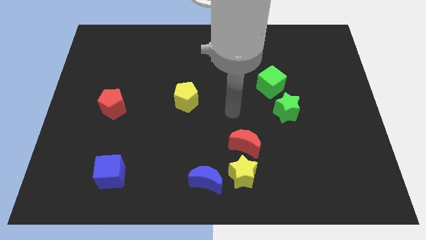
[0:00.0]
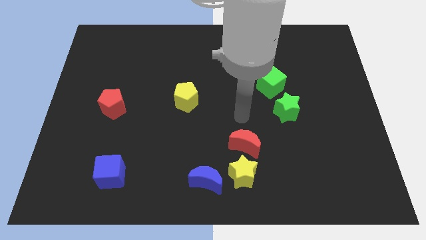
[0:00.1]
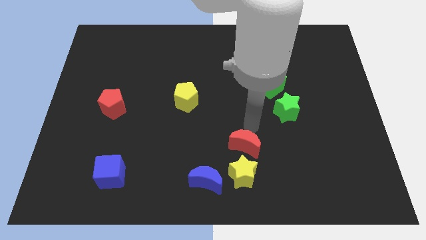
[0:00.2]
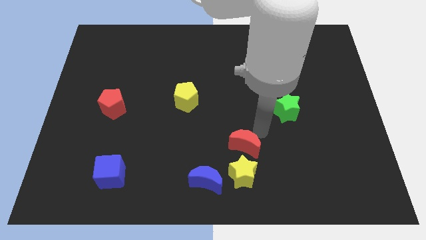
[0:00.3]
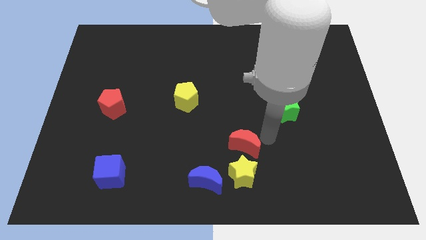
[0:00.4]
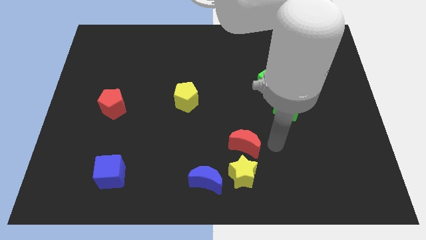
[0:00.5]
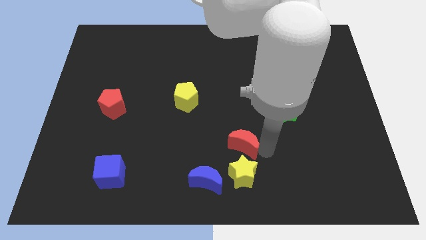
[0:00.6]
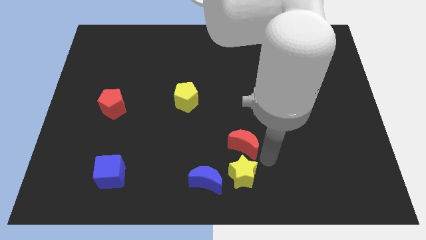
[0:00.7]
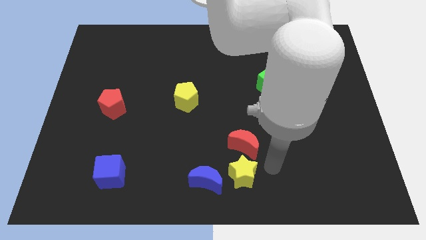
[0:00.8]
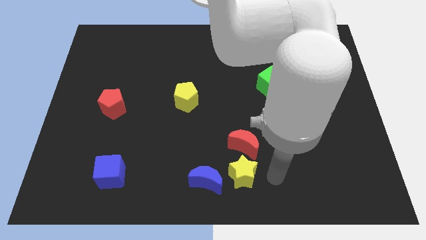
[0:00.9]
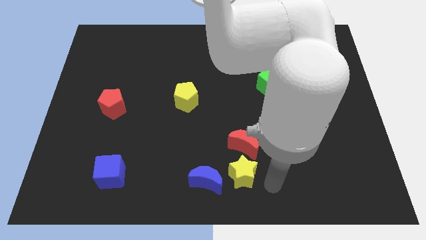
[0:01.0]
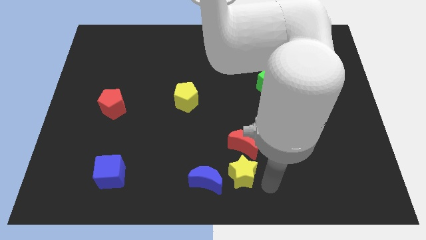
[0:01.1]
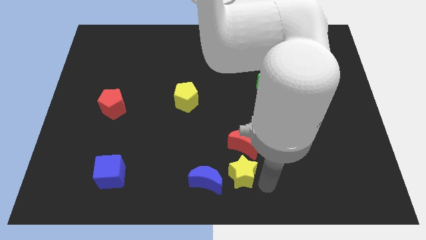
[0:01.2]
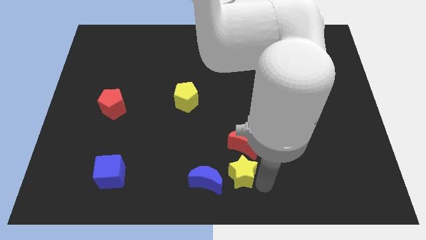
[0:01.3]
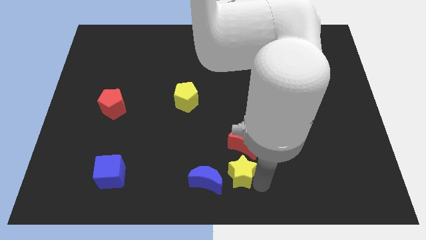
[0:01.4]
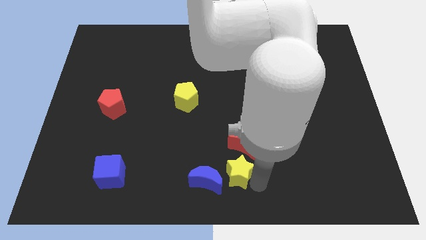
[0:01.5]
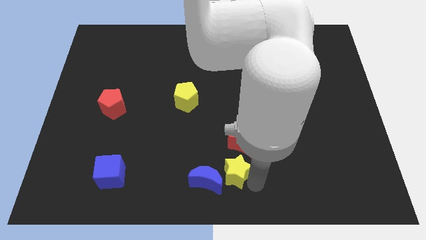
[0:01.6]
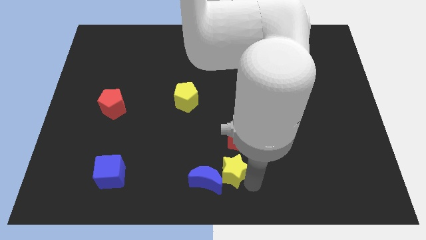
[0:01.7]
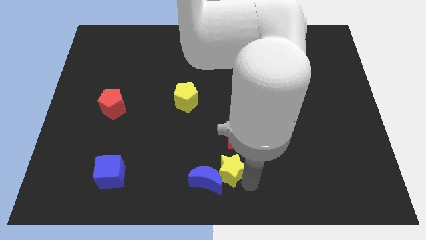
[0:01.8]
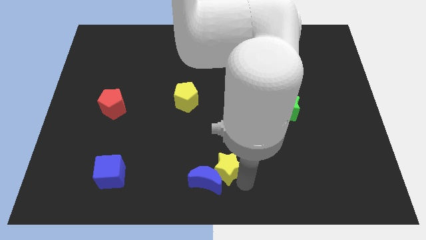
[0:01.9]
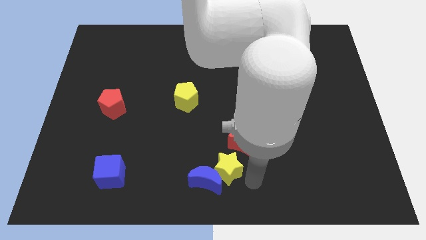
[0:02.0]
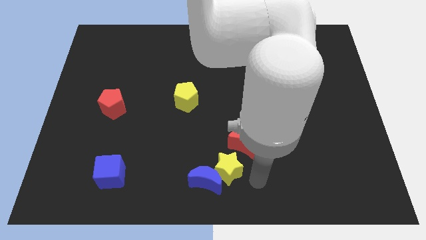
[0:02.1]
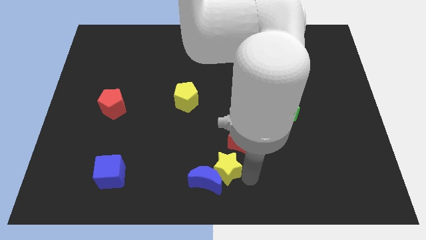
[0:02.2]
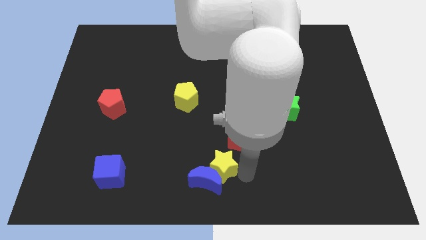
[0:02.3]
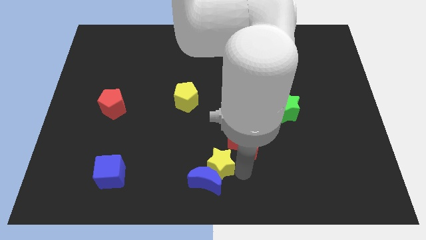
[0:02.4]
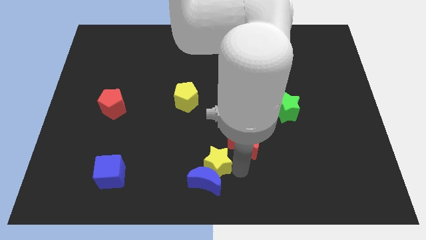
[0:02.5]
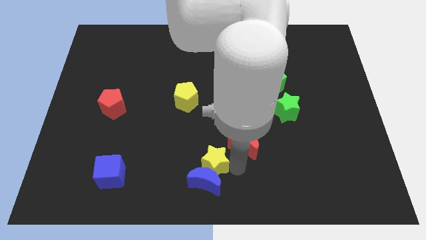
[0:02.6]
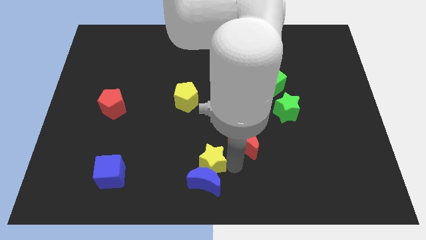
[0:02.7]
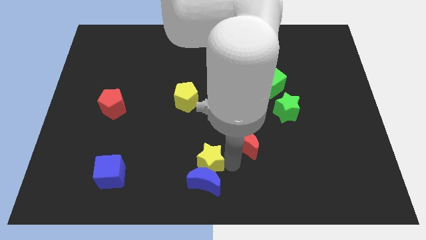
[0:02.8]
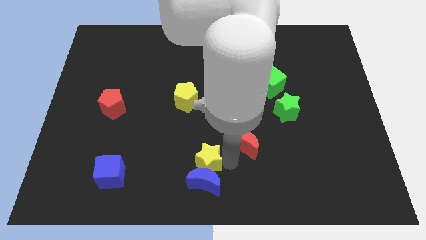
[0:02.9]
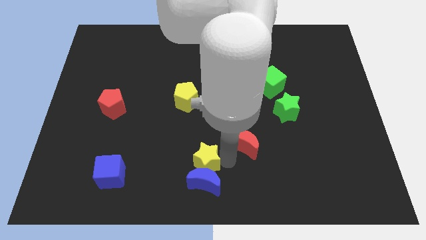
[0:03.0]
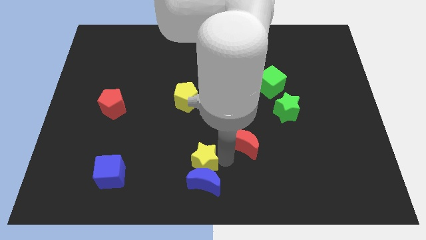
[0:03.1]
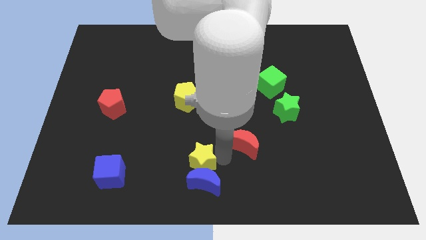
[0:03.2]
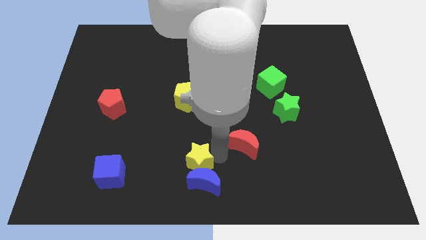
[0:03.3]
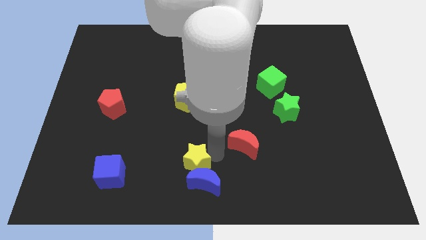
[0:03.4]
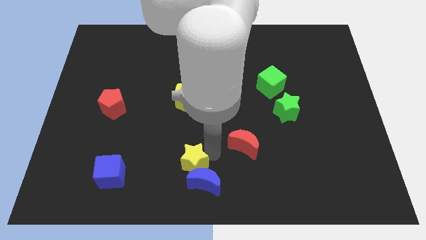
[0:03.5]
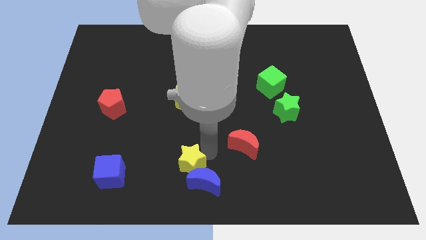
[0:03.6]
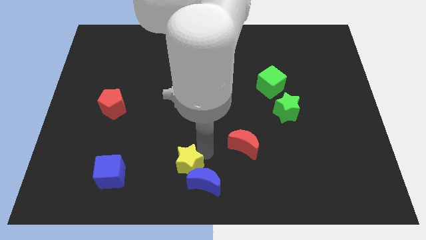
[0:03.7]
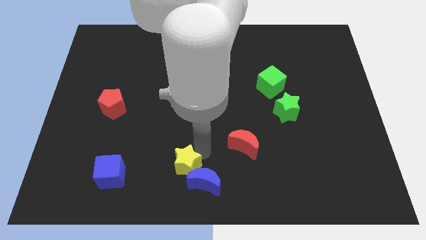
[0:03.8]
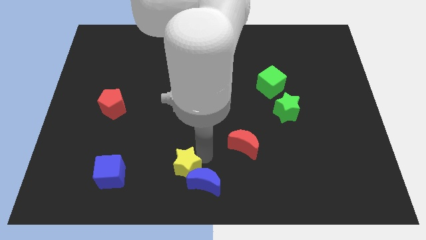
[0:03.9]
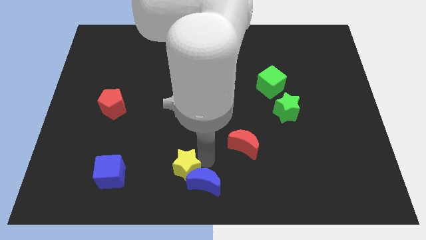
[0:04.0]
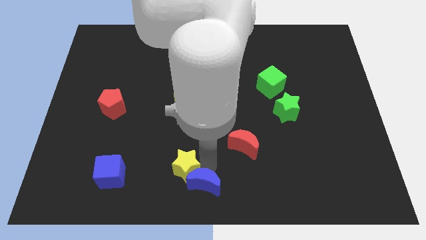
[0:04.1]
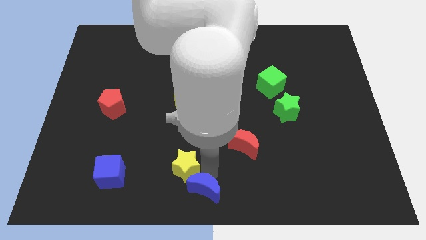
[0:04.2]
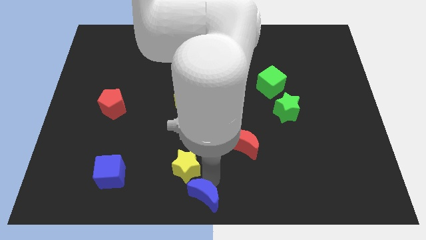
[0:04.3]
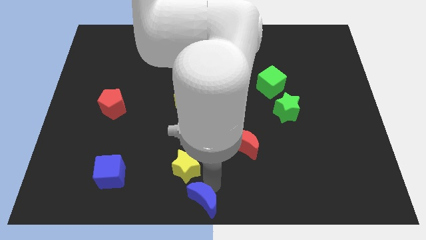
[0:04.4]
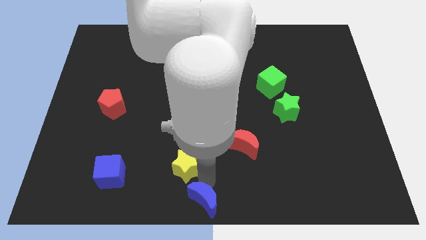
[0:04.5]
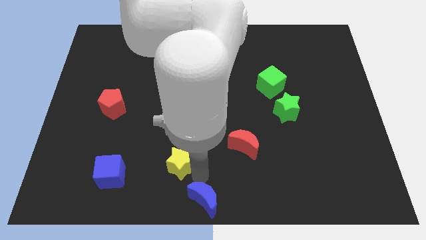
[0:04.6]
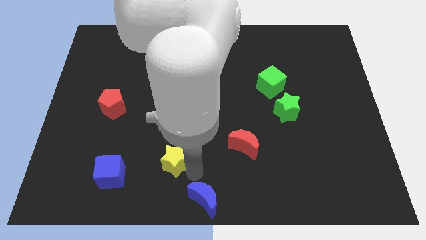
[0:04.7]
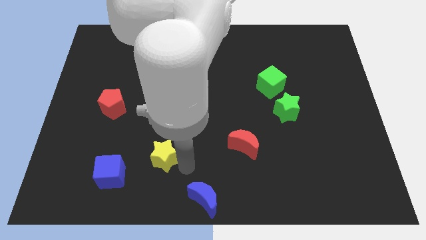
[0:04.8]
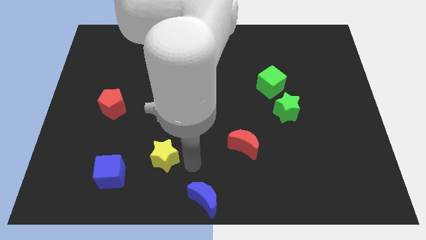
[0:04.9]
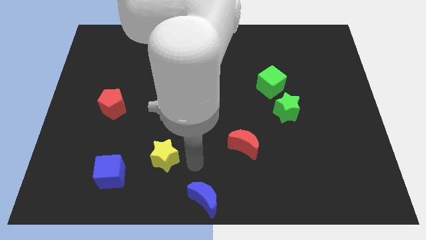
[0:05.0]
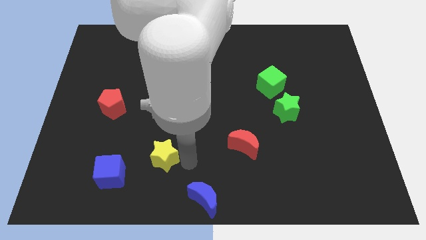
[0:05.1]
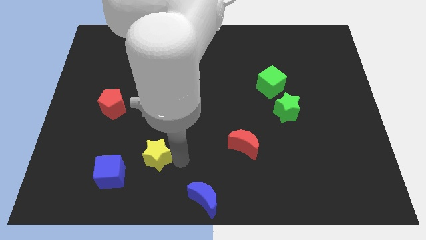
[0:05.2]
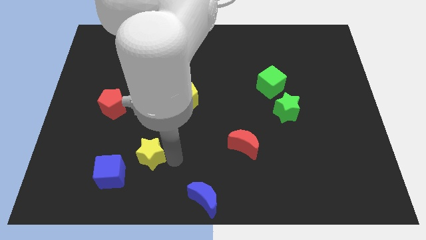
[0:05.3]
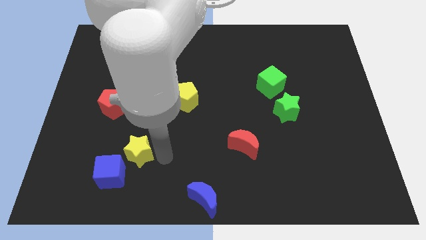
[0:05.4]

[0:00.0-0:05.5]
push the yellow star to the left

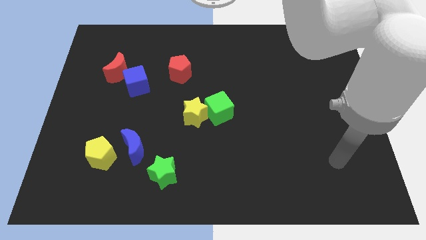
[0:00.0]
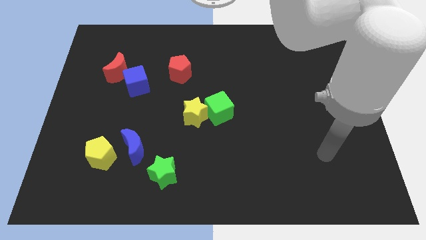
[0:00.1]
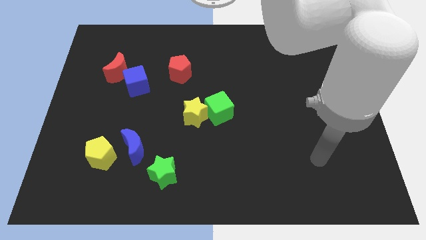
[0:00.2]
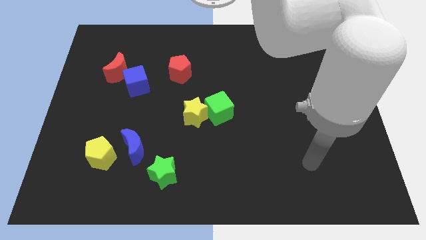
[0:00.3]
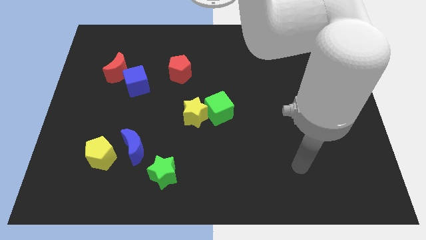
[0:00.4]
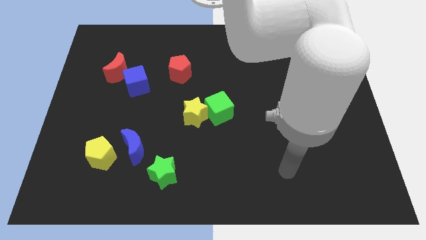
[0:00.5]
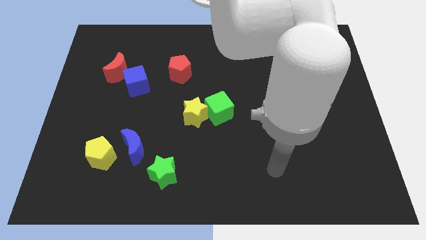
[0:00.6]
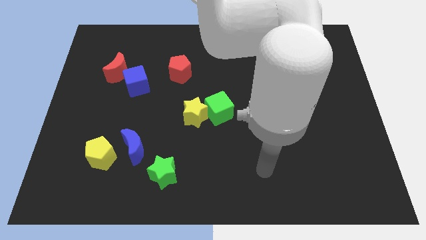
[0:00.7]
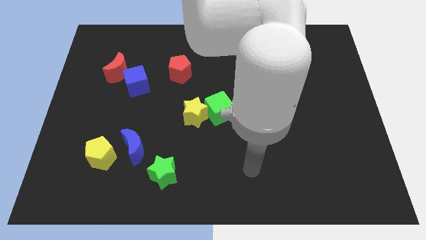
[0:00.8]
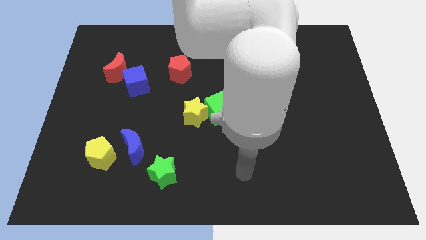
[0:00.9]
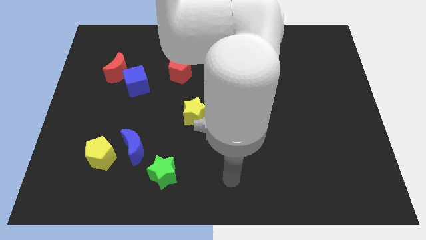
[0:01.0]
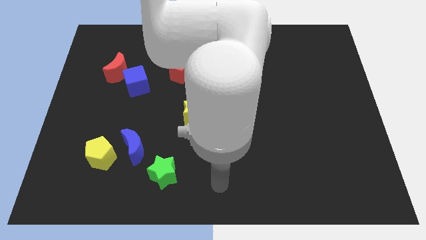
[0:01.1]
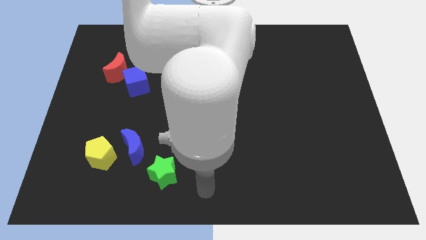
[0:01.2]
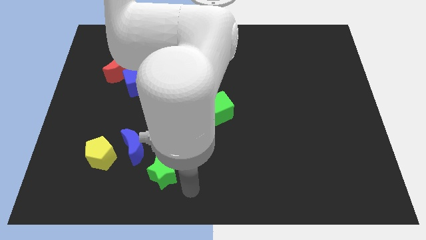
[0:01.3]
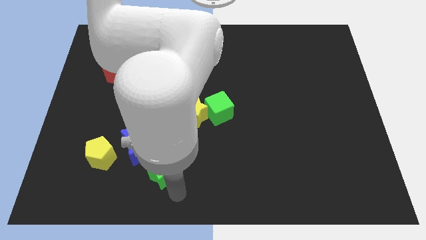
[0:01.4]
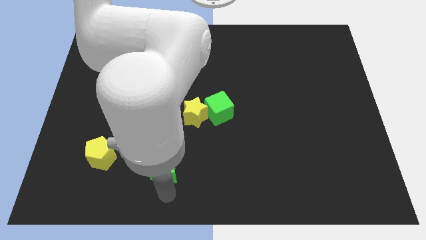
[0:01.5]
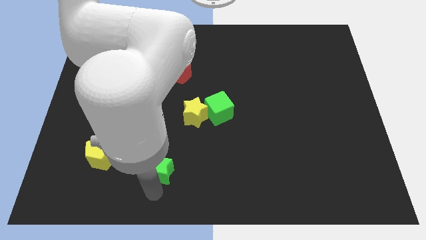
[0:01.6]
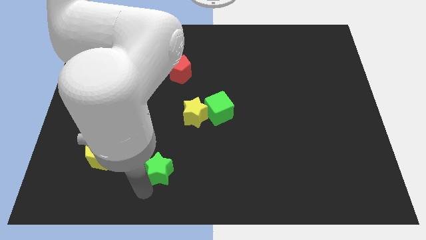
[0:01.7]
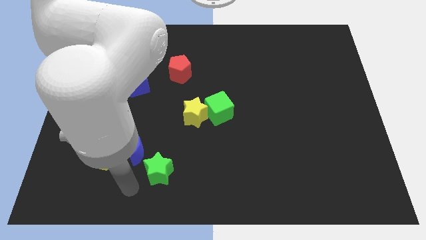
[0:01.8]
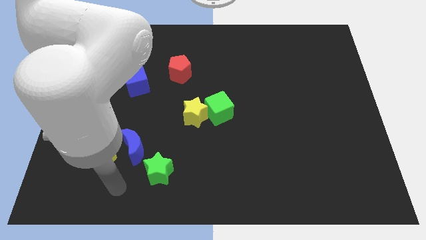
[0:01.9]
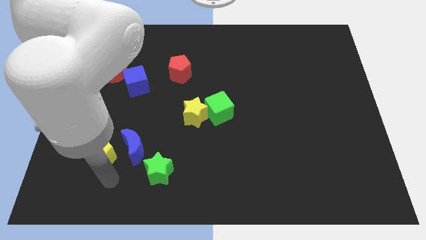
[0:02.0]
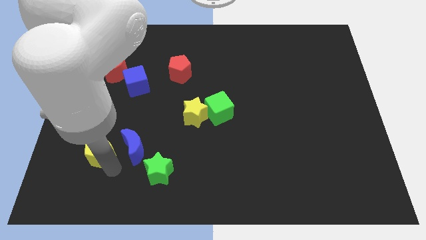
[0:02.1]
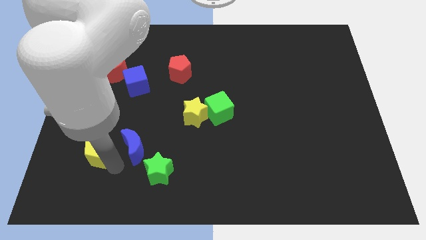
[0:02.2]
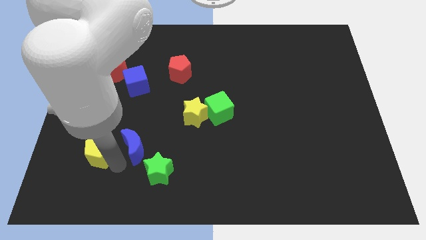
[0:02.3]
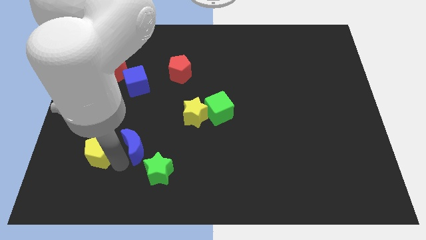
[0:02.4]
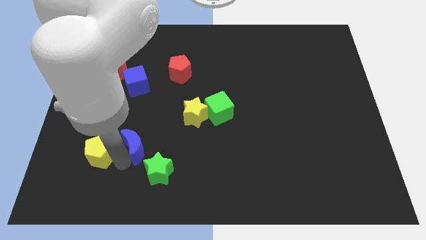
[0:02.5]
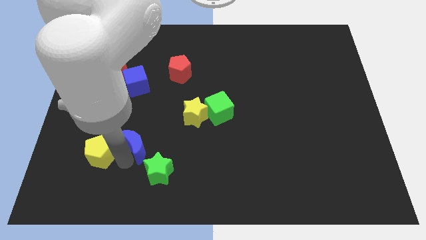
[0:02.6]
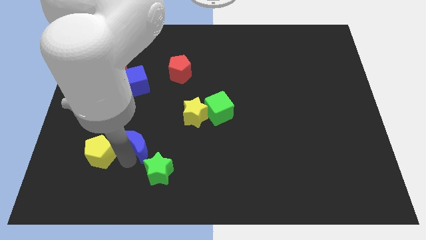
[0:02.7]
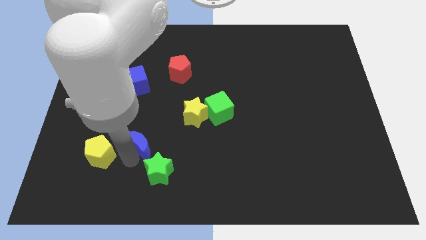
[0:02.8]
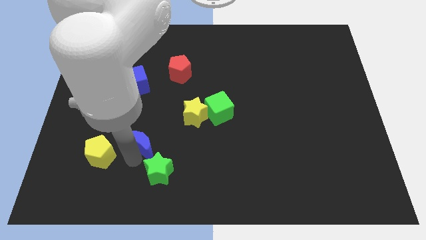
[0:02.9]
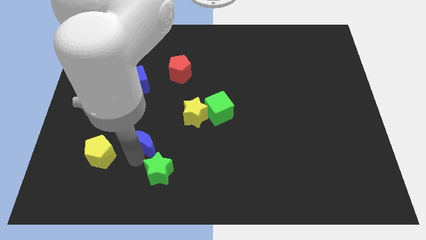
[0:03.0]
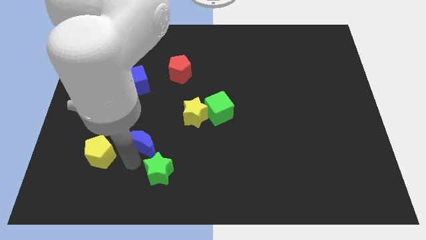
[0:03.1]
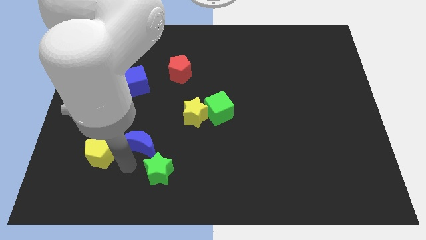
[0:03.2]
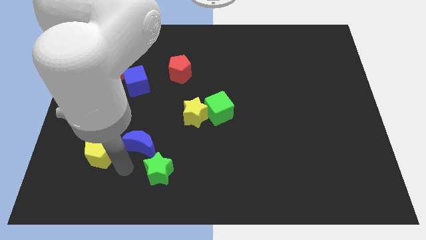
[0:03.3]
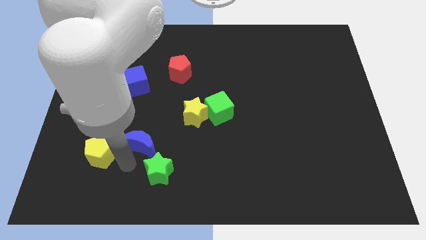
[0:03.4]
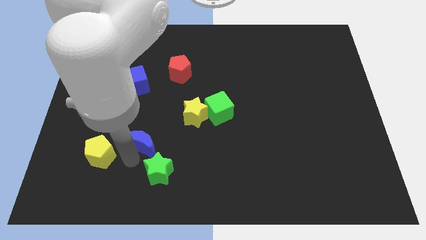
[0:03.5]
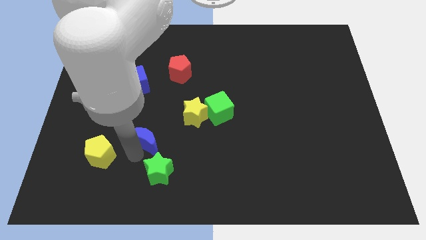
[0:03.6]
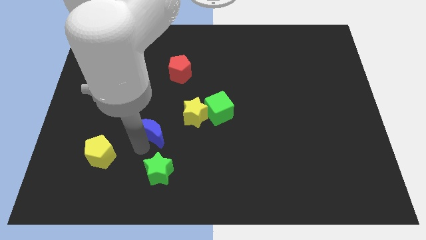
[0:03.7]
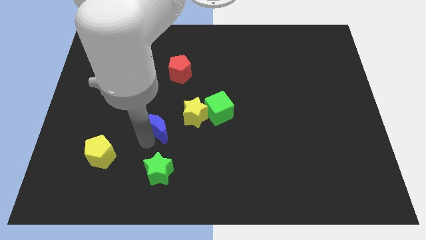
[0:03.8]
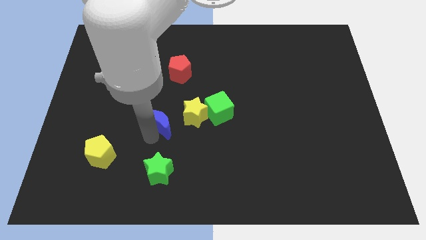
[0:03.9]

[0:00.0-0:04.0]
push the blue moon upwards and then to the right a bit
